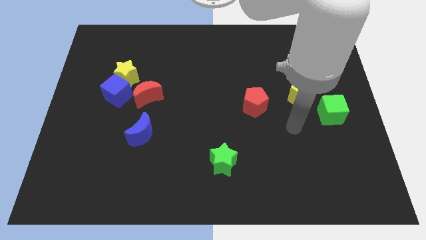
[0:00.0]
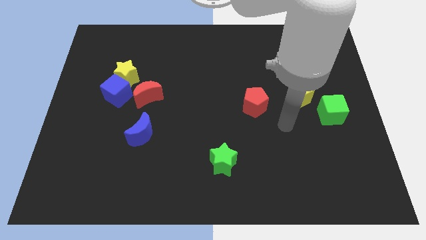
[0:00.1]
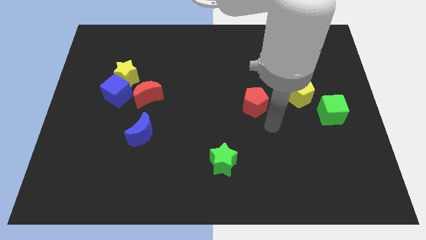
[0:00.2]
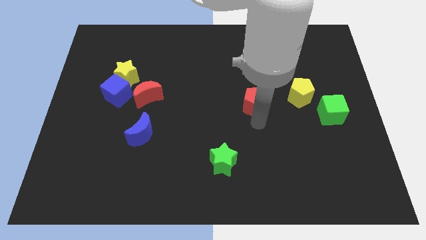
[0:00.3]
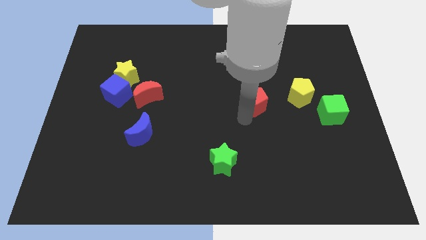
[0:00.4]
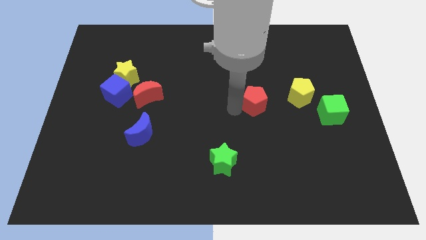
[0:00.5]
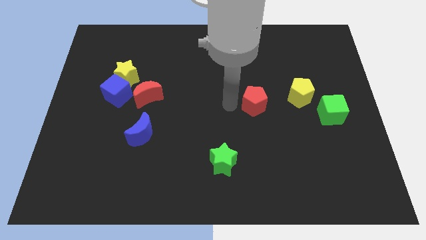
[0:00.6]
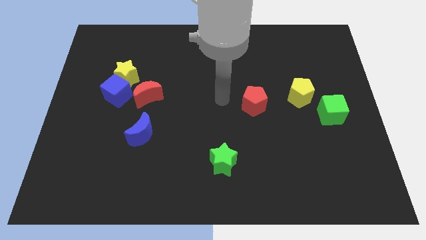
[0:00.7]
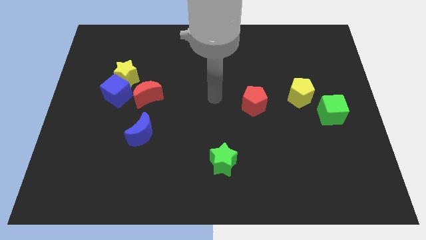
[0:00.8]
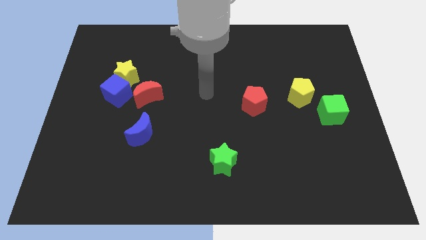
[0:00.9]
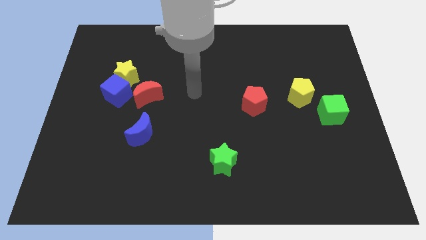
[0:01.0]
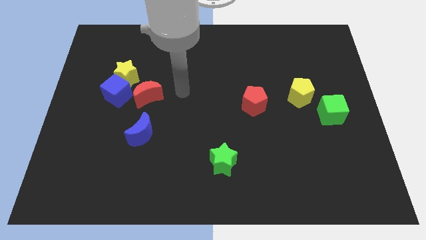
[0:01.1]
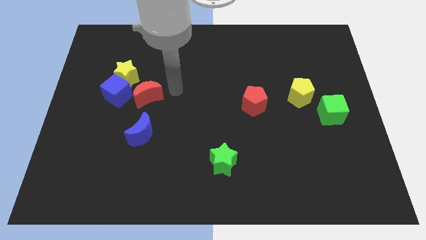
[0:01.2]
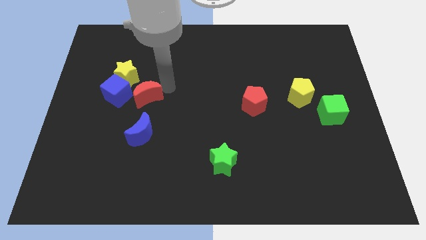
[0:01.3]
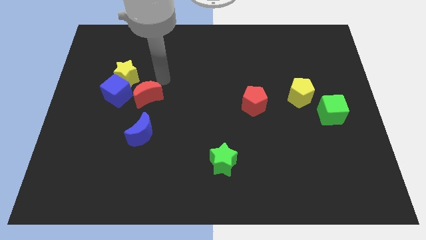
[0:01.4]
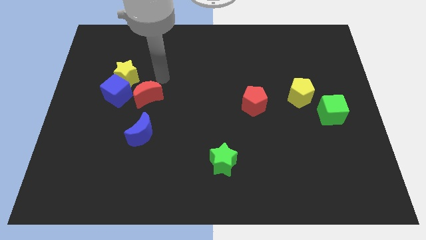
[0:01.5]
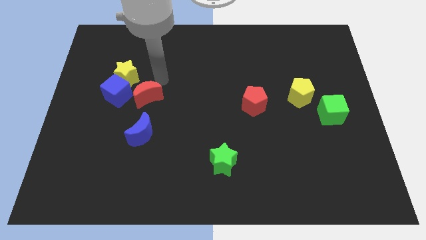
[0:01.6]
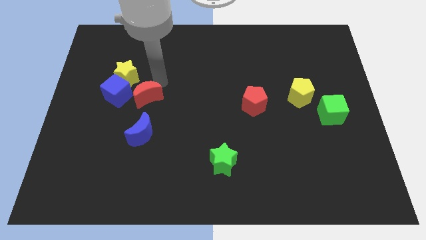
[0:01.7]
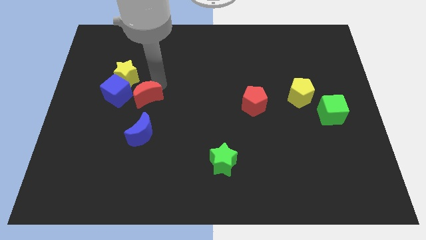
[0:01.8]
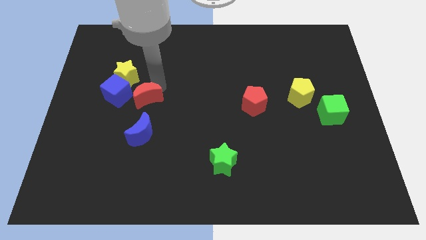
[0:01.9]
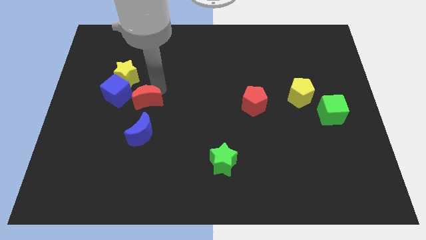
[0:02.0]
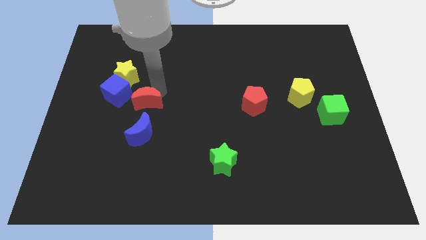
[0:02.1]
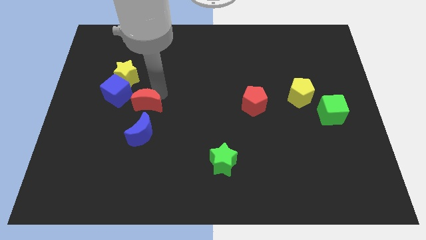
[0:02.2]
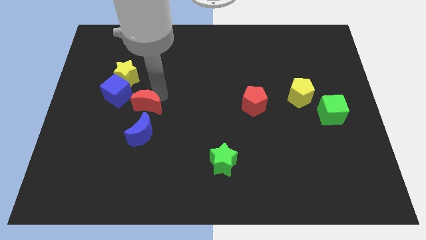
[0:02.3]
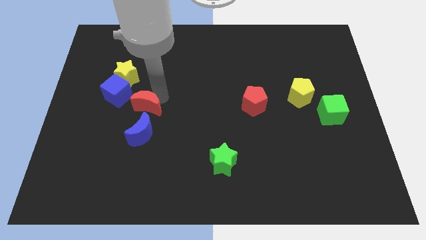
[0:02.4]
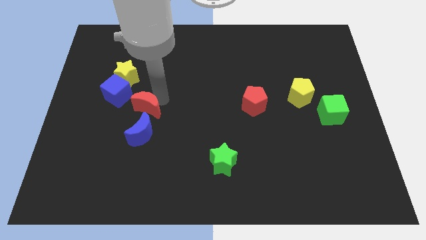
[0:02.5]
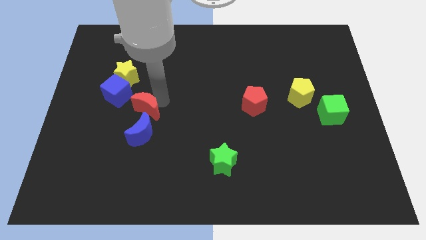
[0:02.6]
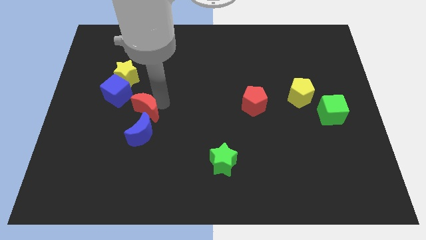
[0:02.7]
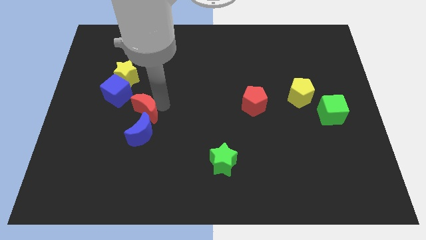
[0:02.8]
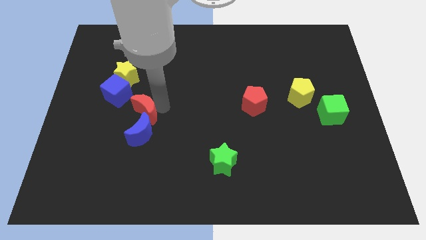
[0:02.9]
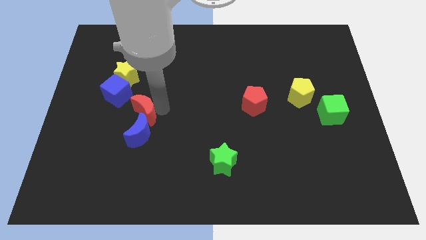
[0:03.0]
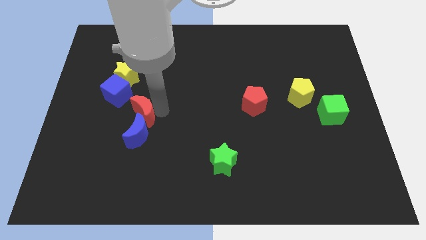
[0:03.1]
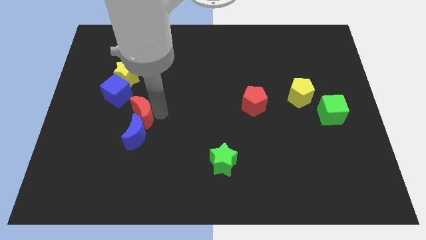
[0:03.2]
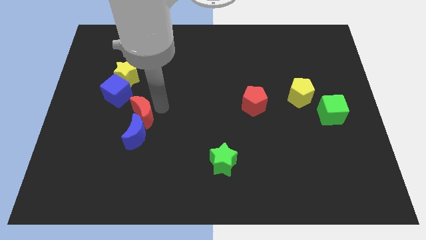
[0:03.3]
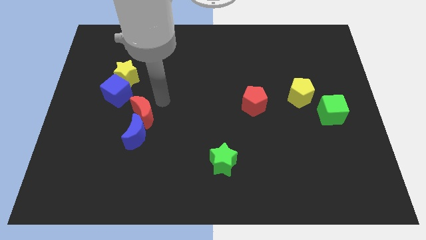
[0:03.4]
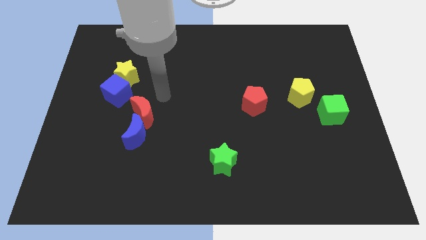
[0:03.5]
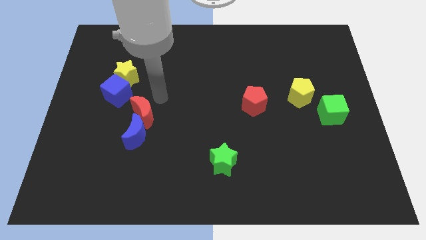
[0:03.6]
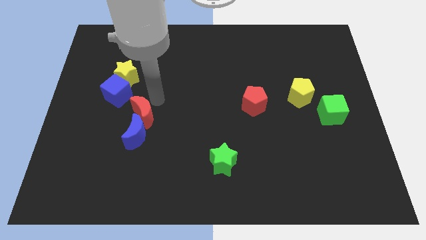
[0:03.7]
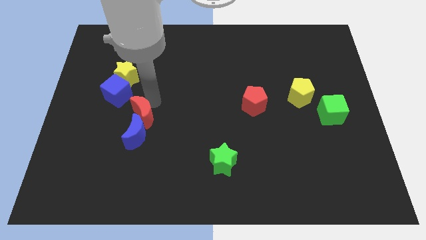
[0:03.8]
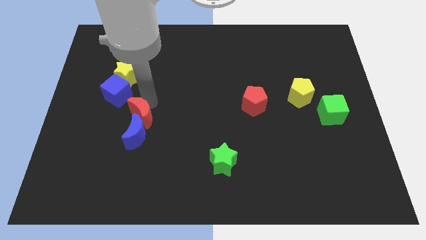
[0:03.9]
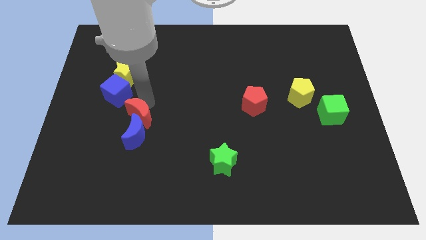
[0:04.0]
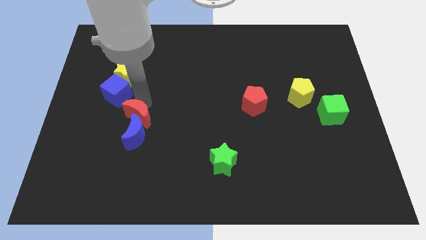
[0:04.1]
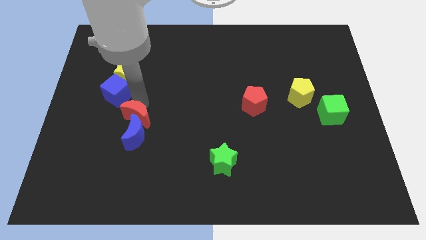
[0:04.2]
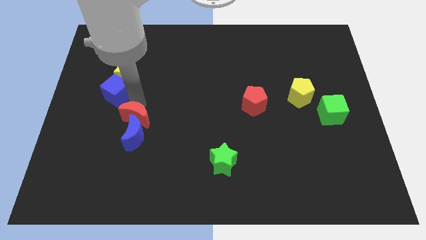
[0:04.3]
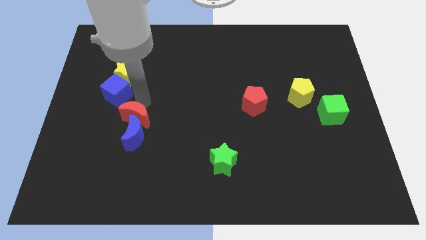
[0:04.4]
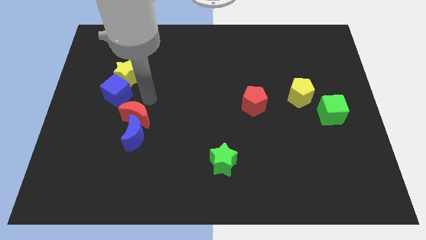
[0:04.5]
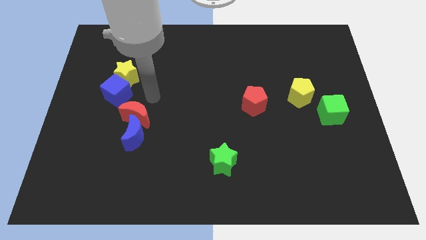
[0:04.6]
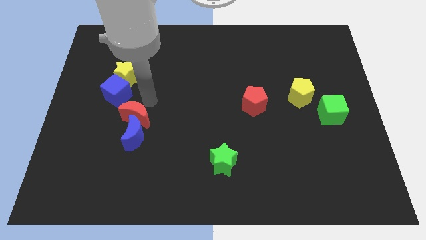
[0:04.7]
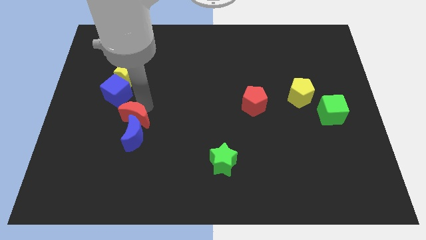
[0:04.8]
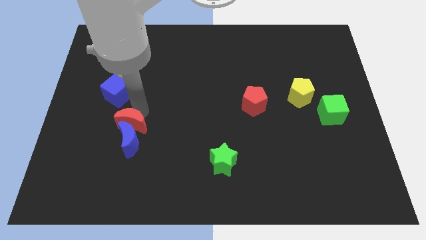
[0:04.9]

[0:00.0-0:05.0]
slightly slide the red moon downwards

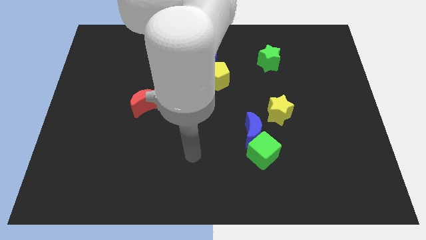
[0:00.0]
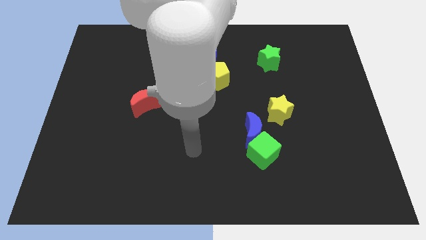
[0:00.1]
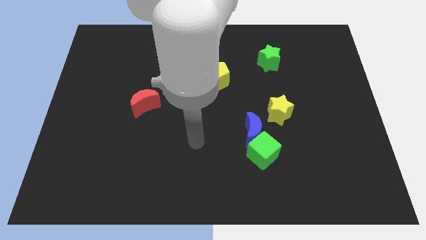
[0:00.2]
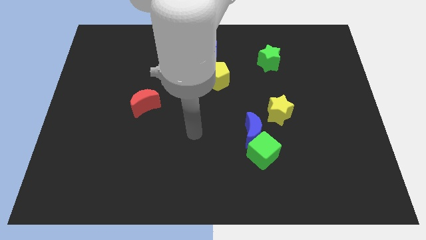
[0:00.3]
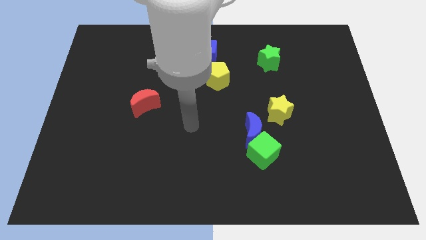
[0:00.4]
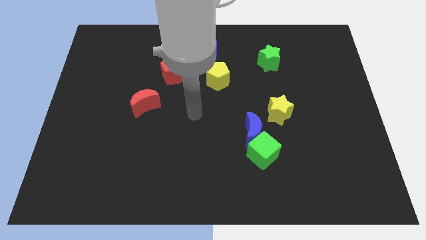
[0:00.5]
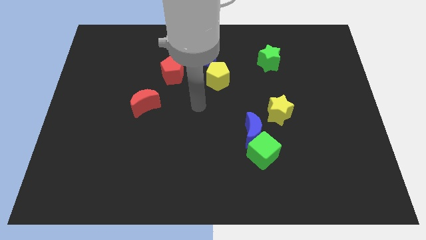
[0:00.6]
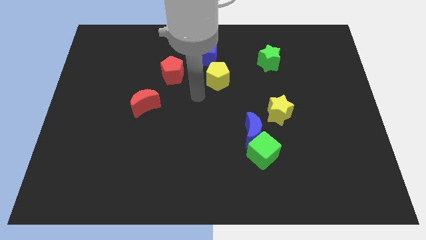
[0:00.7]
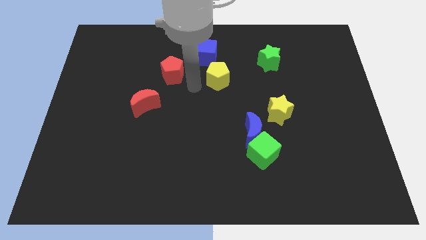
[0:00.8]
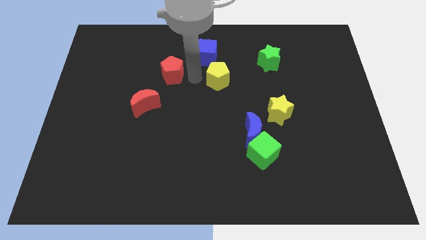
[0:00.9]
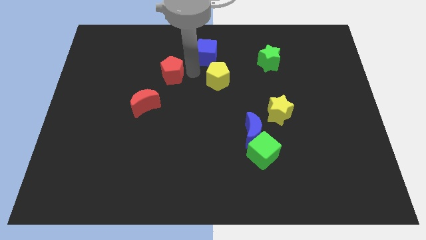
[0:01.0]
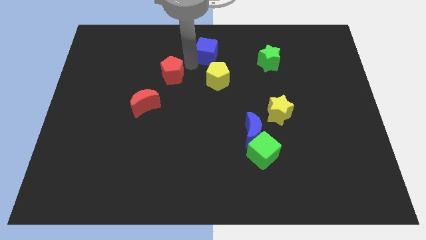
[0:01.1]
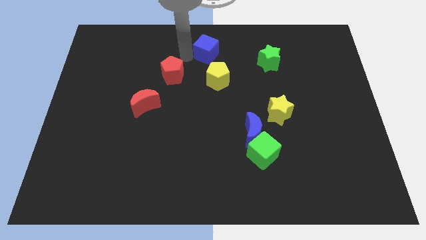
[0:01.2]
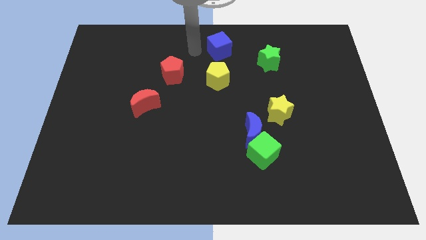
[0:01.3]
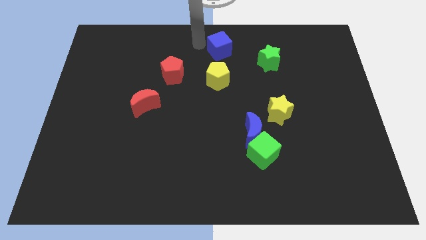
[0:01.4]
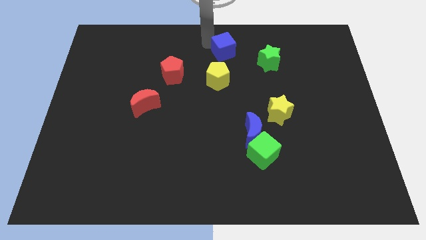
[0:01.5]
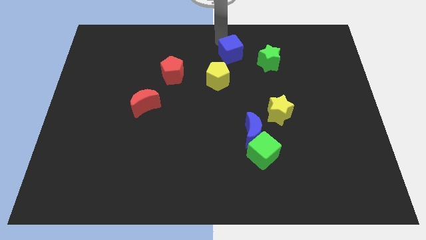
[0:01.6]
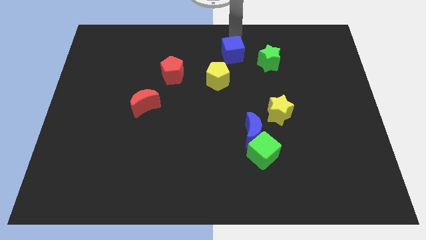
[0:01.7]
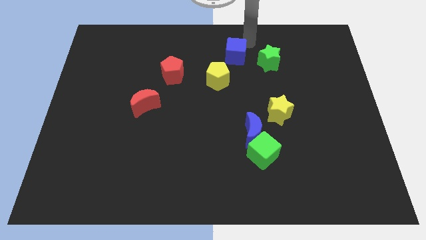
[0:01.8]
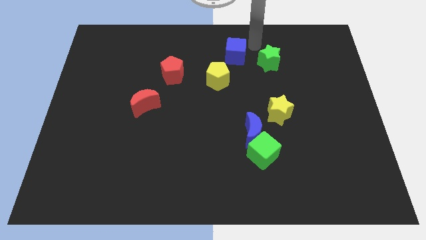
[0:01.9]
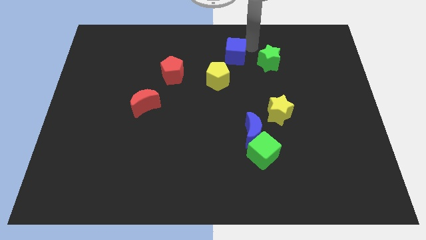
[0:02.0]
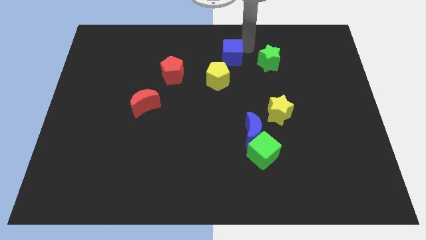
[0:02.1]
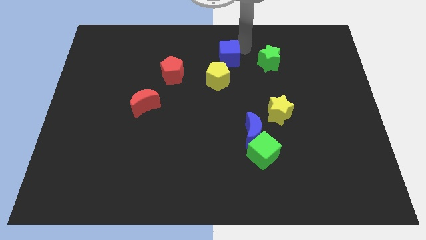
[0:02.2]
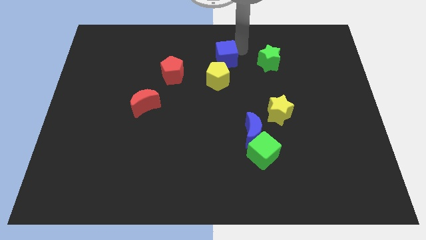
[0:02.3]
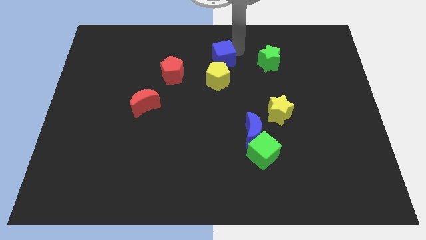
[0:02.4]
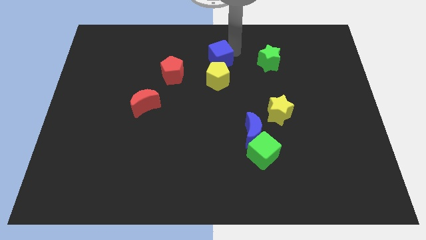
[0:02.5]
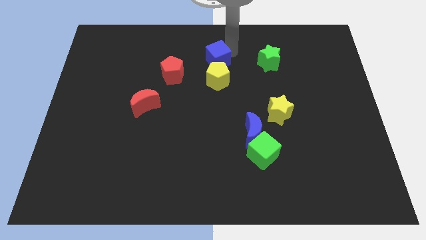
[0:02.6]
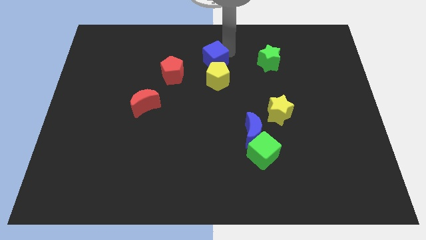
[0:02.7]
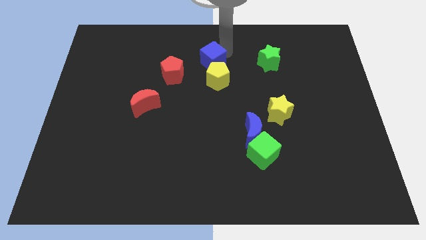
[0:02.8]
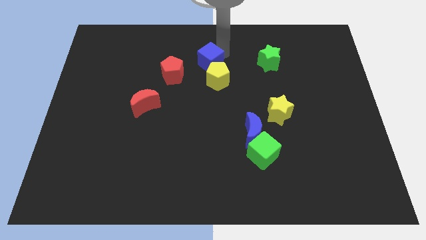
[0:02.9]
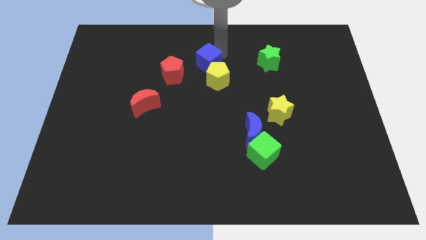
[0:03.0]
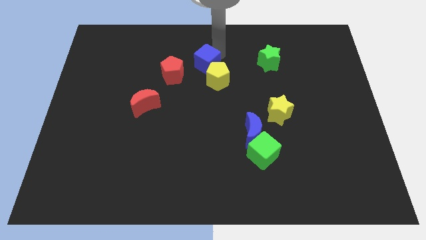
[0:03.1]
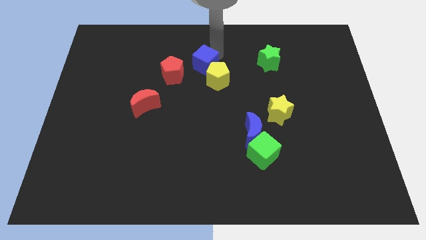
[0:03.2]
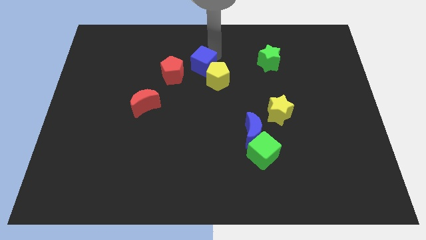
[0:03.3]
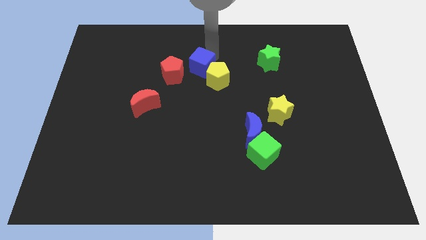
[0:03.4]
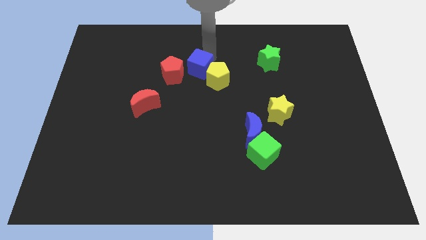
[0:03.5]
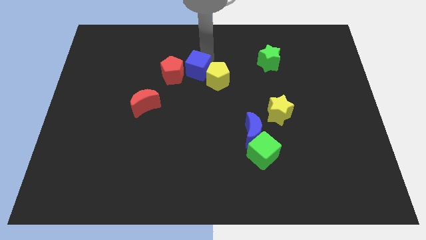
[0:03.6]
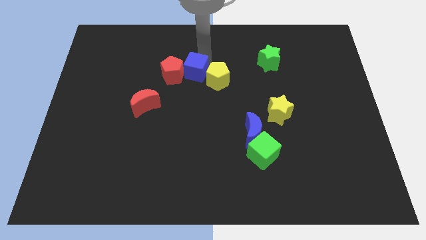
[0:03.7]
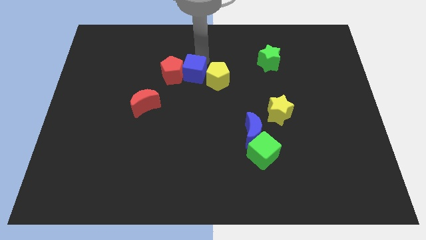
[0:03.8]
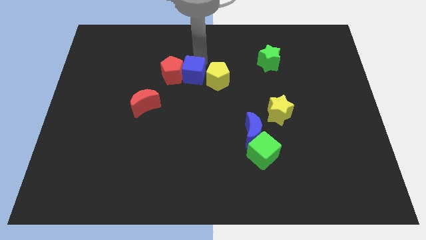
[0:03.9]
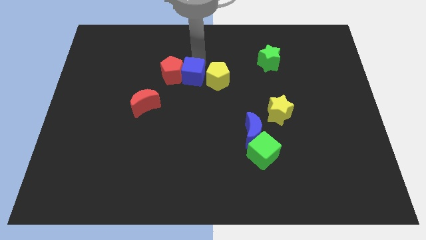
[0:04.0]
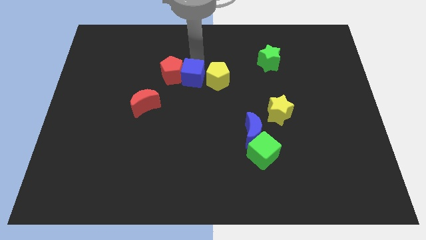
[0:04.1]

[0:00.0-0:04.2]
push the blue cube downwards a little bit
